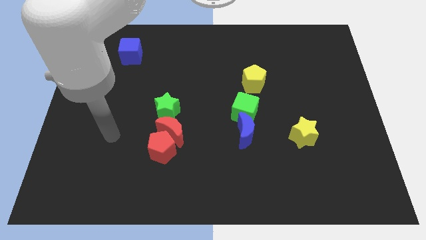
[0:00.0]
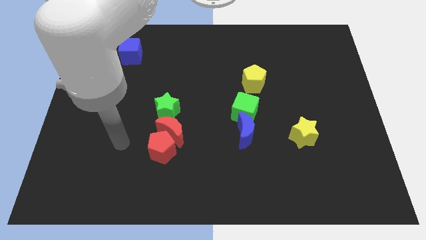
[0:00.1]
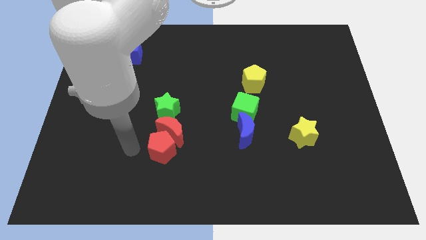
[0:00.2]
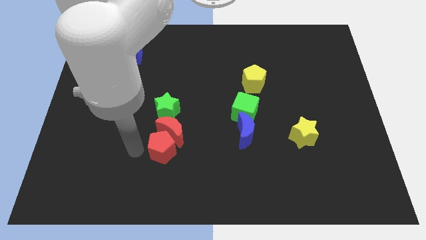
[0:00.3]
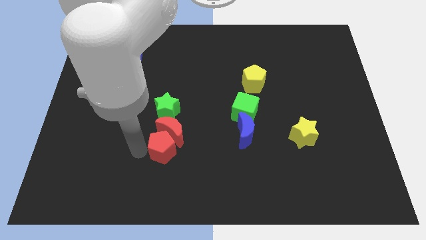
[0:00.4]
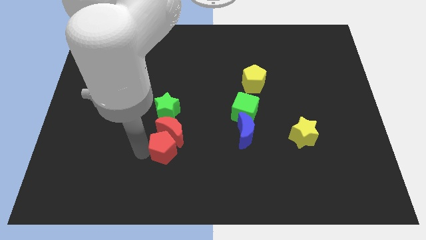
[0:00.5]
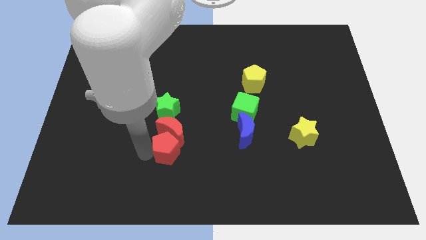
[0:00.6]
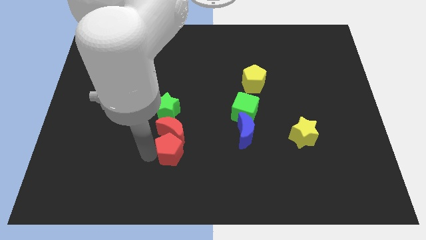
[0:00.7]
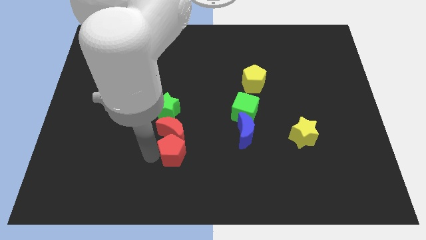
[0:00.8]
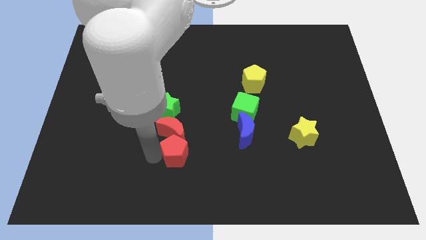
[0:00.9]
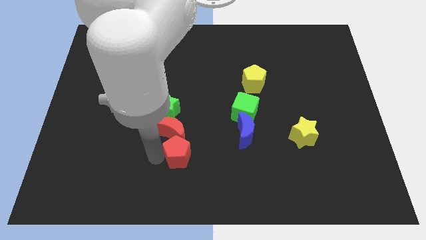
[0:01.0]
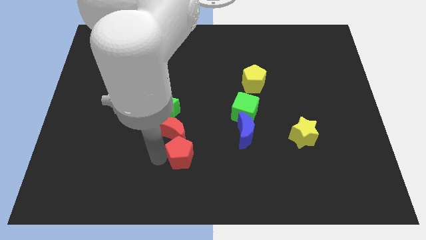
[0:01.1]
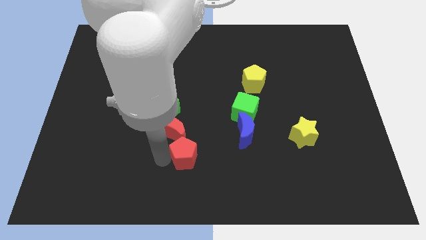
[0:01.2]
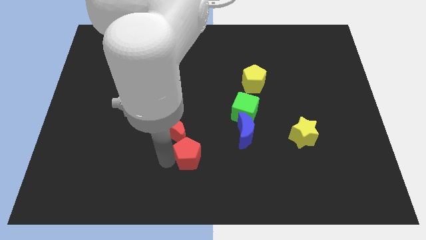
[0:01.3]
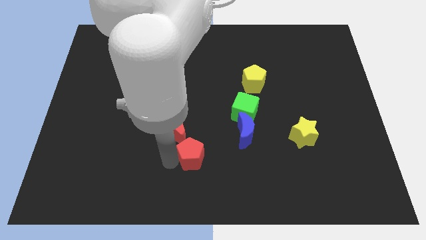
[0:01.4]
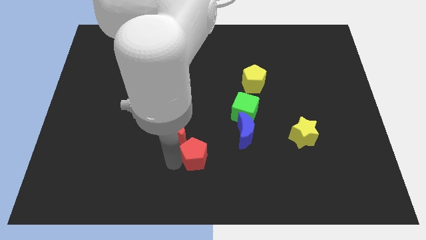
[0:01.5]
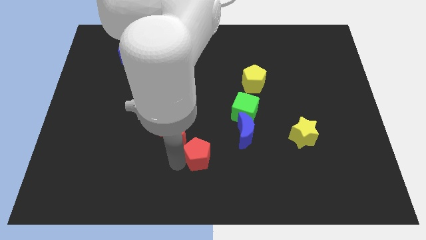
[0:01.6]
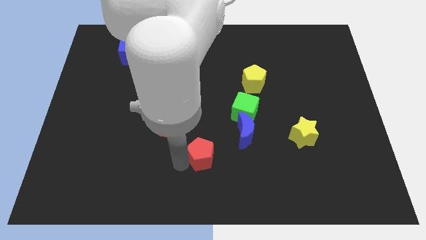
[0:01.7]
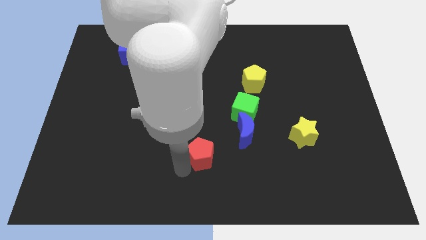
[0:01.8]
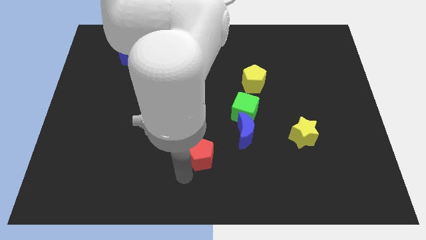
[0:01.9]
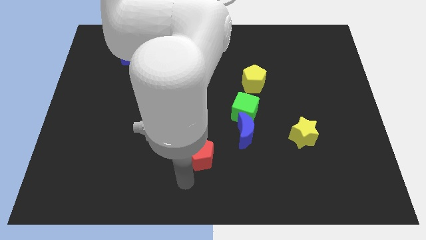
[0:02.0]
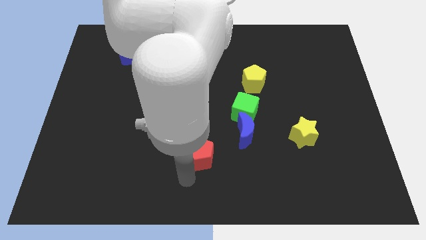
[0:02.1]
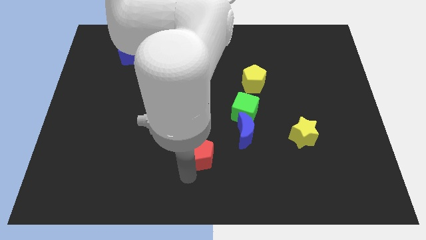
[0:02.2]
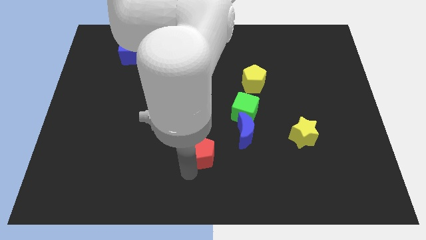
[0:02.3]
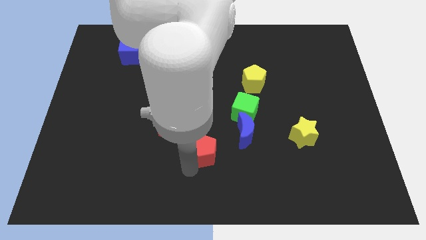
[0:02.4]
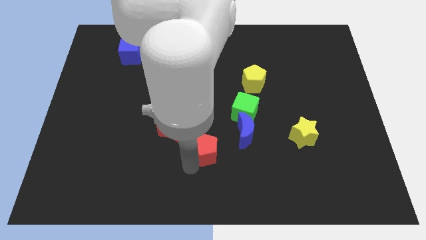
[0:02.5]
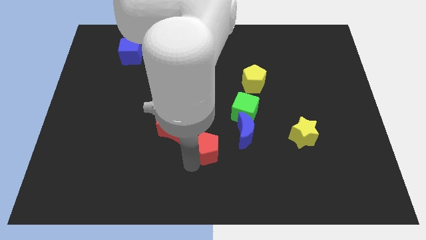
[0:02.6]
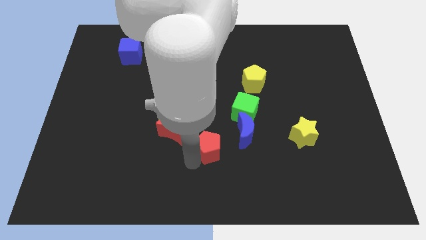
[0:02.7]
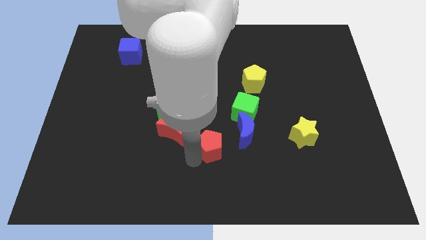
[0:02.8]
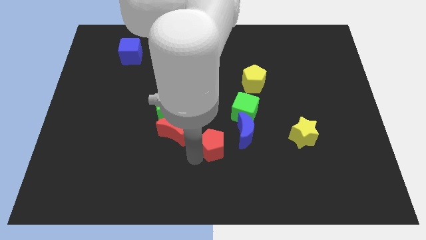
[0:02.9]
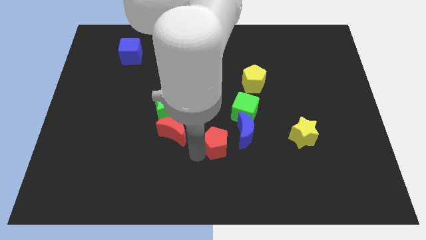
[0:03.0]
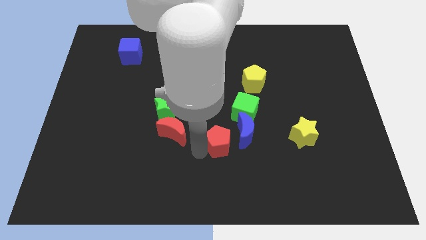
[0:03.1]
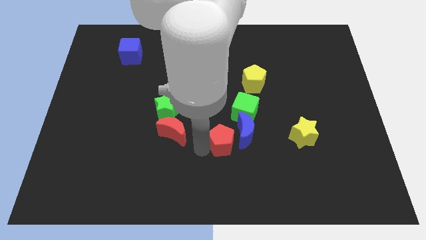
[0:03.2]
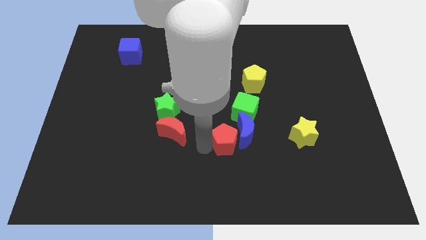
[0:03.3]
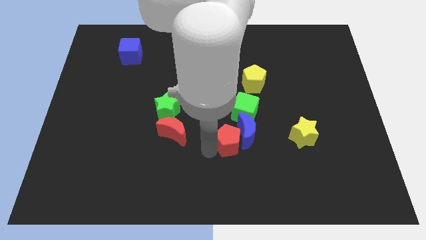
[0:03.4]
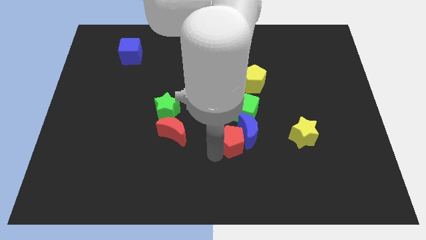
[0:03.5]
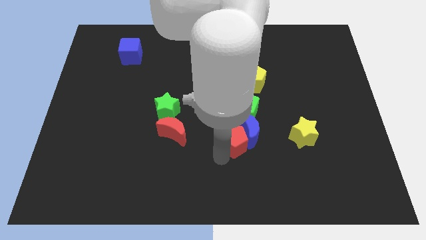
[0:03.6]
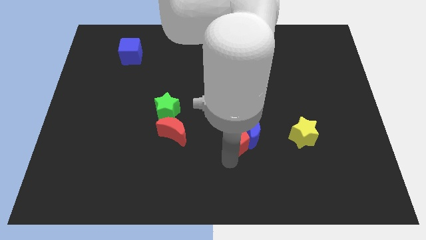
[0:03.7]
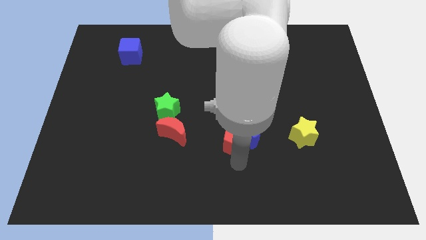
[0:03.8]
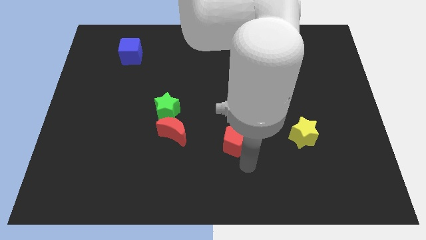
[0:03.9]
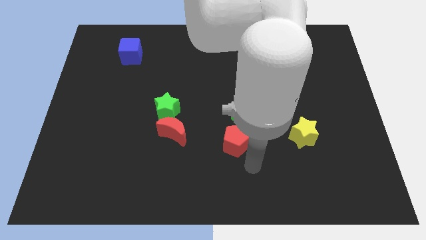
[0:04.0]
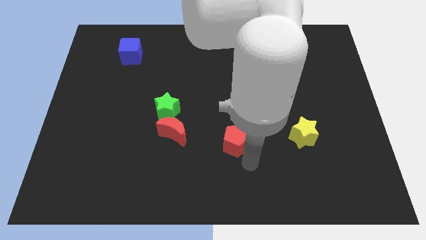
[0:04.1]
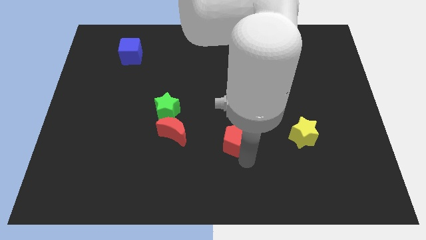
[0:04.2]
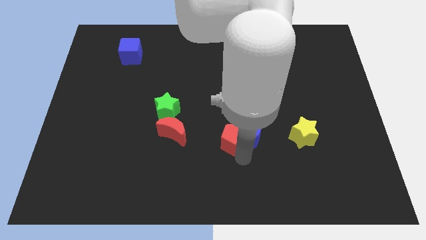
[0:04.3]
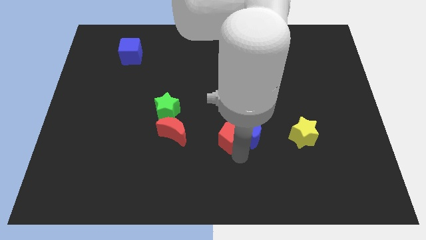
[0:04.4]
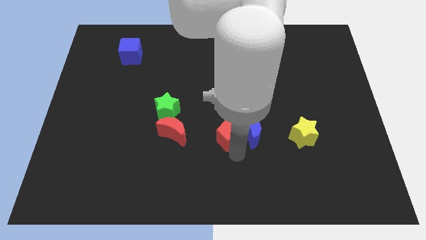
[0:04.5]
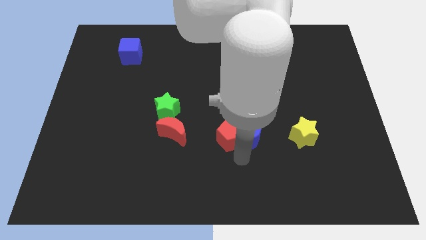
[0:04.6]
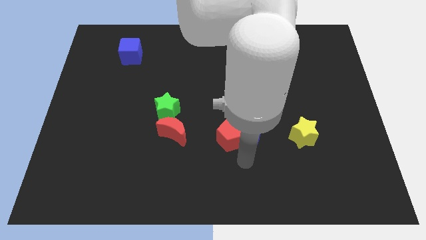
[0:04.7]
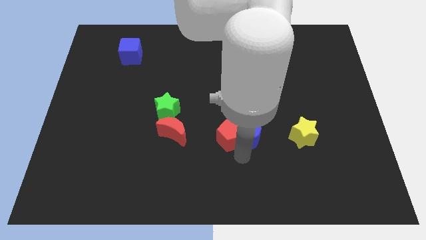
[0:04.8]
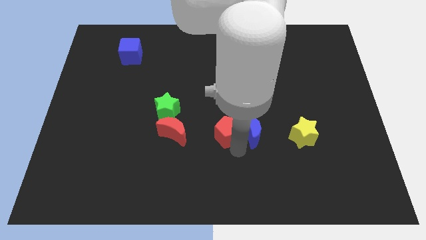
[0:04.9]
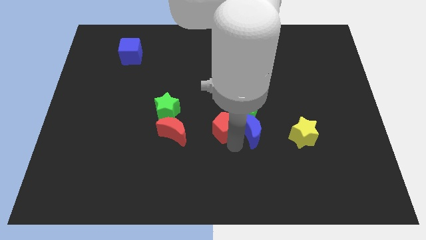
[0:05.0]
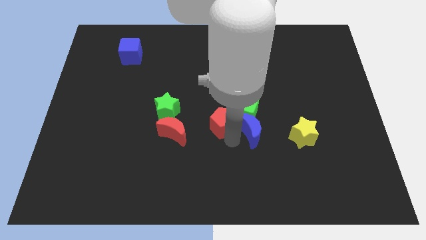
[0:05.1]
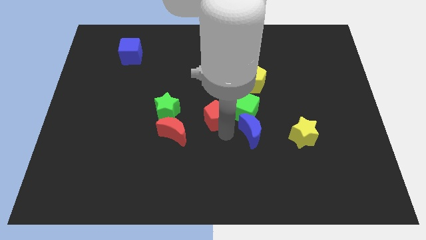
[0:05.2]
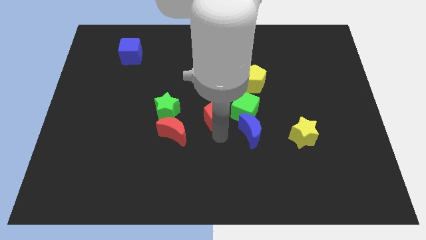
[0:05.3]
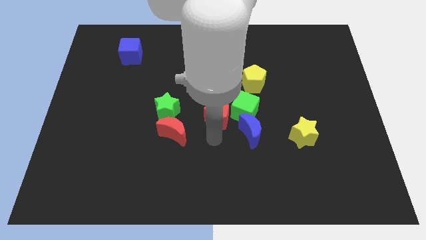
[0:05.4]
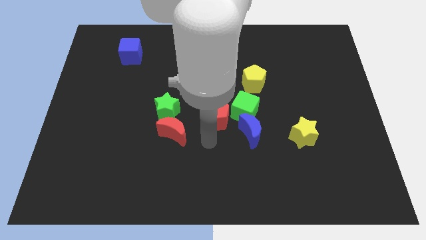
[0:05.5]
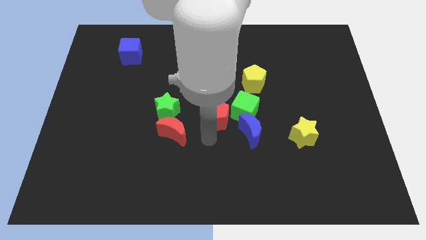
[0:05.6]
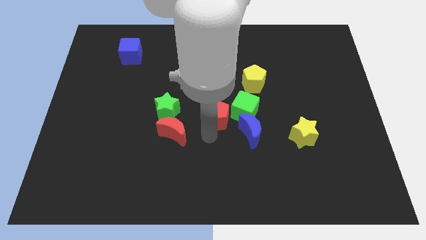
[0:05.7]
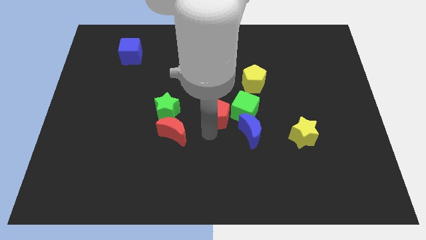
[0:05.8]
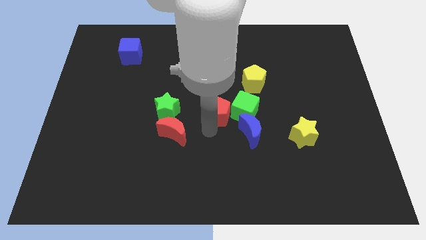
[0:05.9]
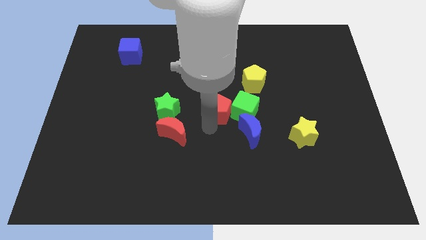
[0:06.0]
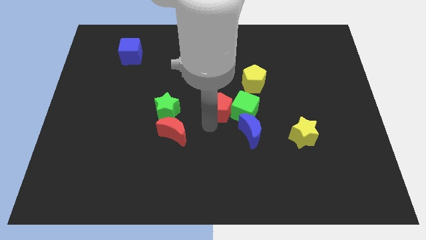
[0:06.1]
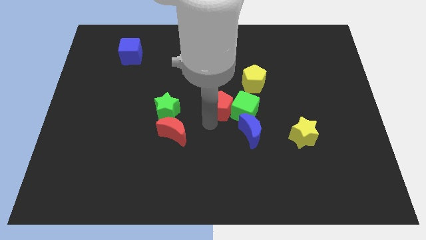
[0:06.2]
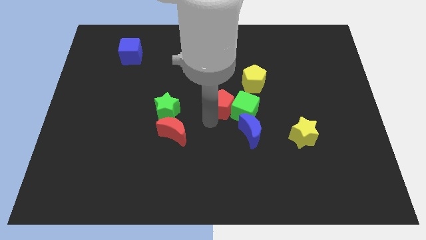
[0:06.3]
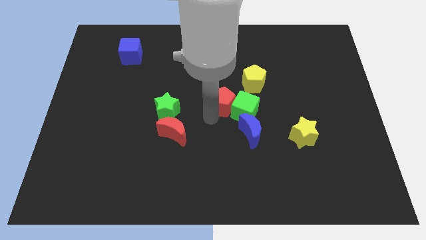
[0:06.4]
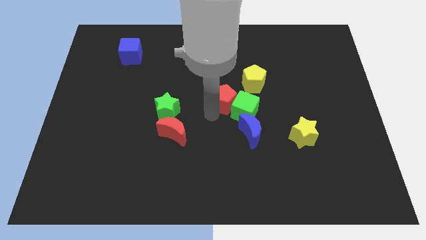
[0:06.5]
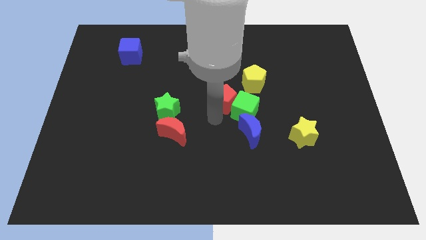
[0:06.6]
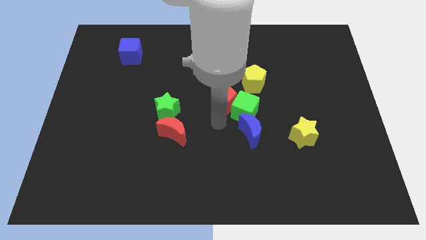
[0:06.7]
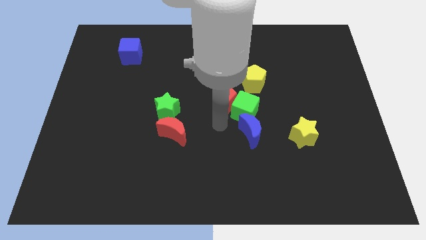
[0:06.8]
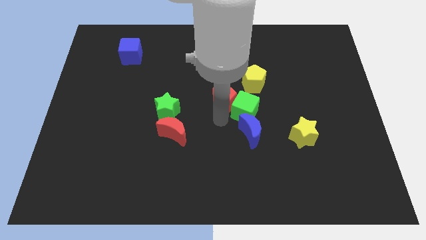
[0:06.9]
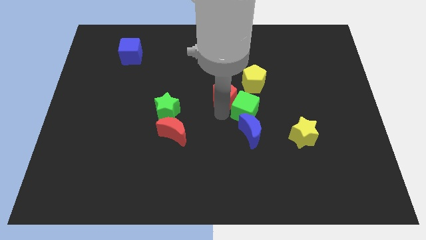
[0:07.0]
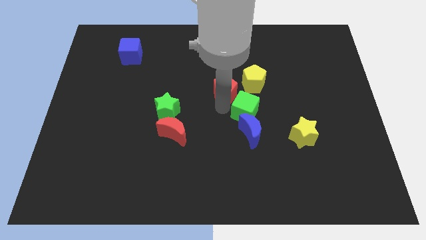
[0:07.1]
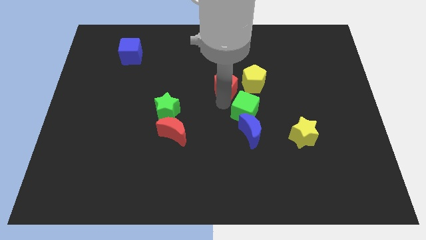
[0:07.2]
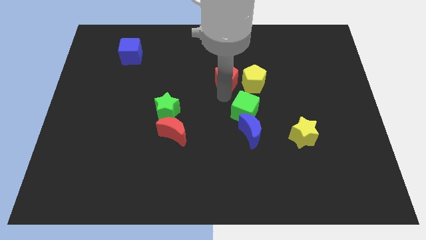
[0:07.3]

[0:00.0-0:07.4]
slide the red pentagon to the top left side of the yellow pentagon
